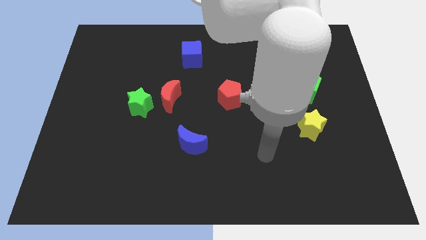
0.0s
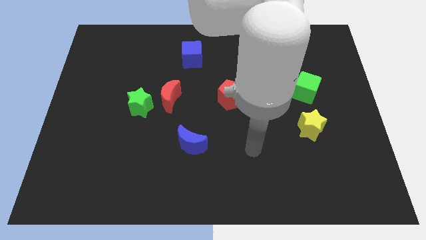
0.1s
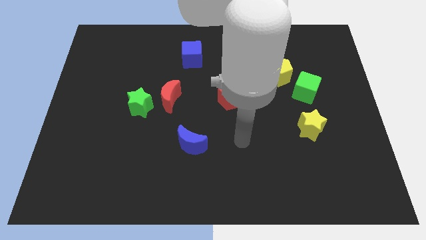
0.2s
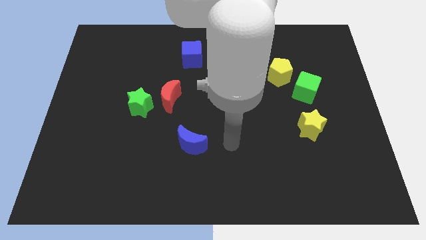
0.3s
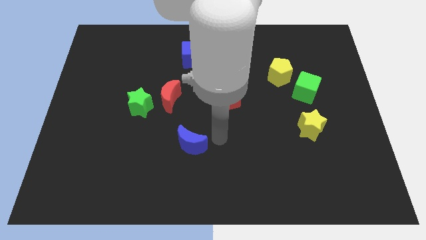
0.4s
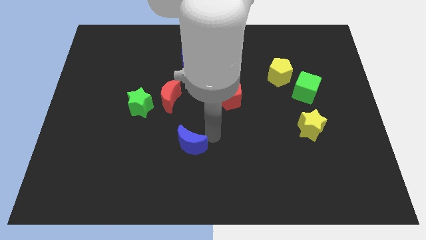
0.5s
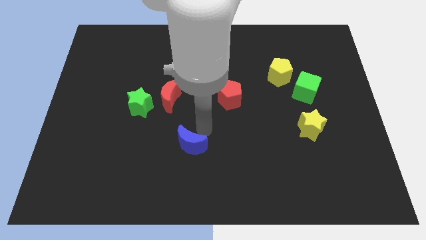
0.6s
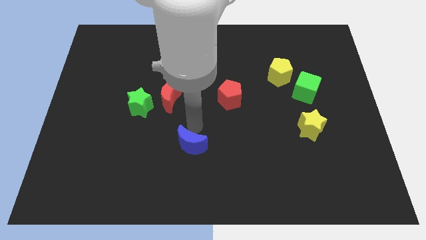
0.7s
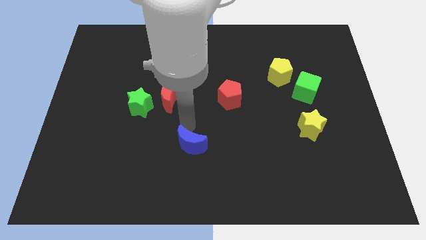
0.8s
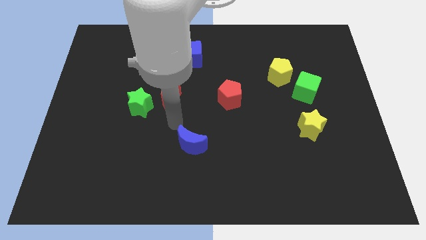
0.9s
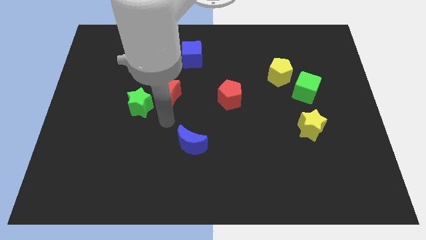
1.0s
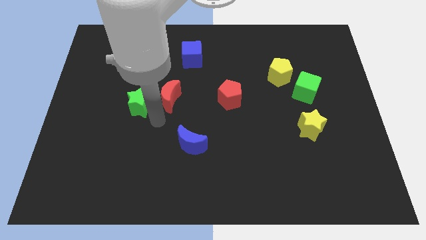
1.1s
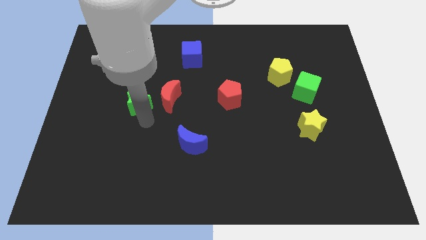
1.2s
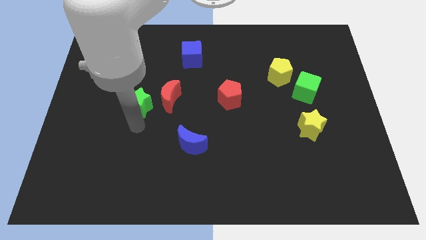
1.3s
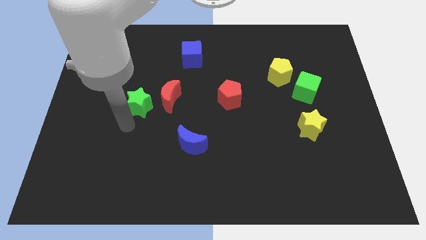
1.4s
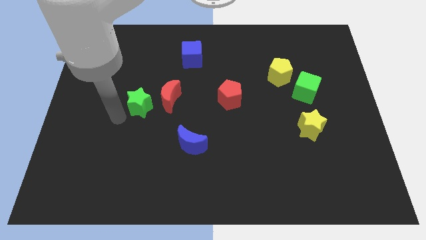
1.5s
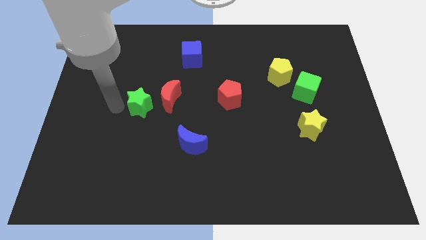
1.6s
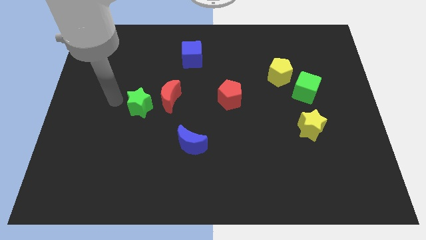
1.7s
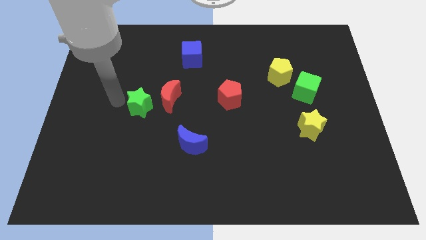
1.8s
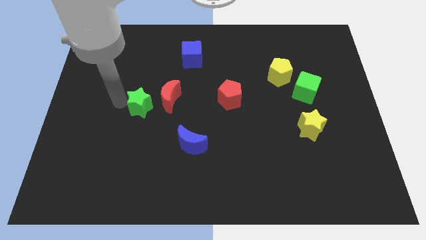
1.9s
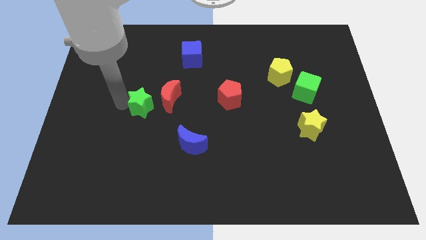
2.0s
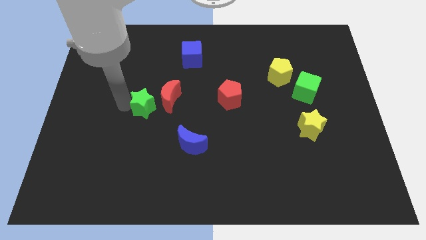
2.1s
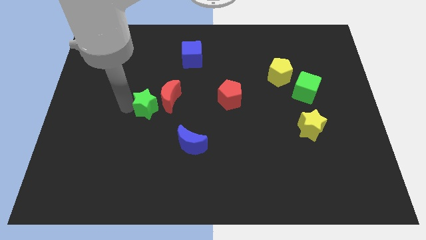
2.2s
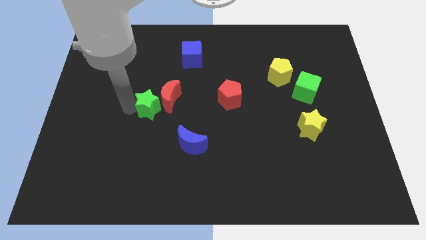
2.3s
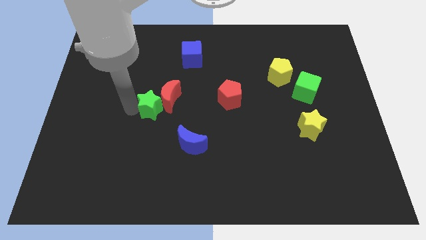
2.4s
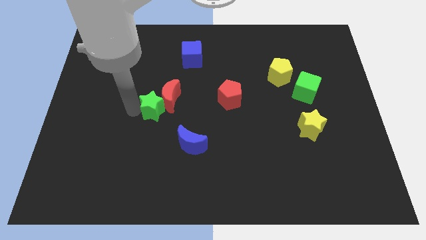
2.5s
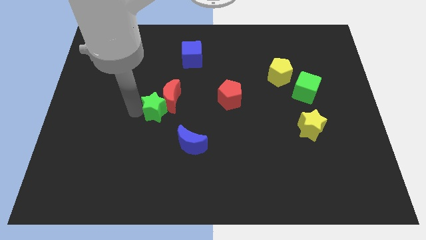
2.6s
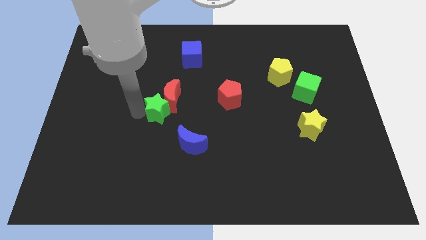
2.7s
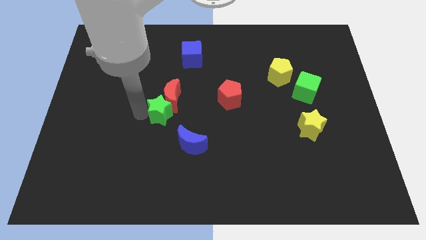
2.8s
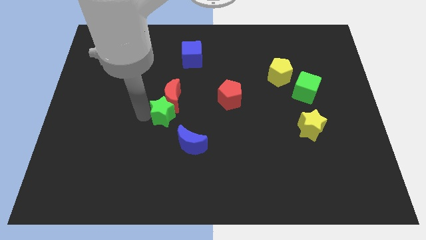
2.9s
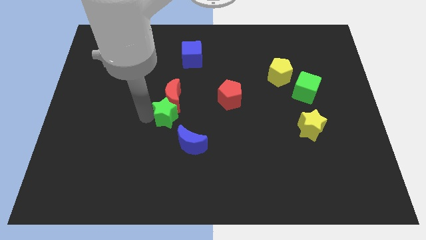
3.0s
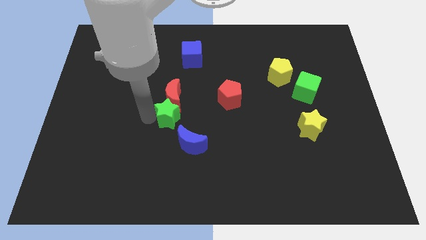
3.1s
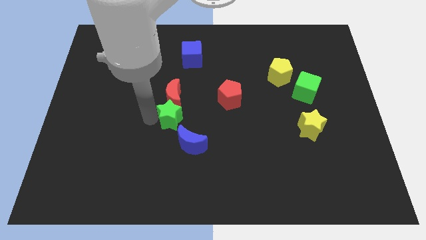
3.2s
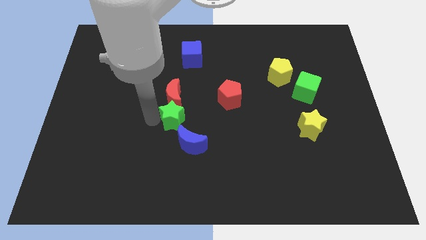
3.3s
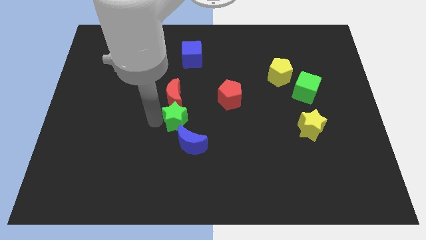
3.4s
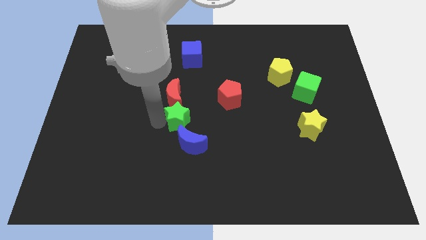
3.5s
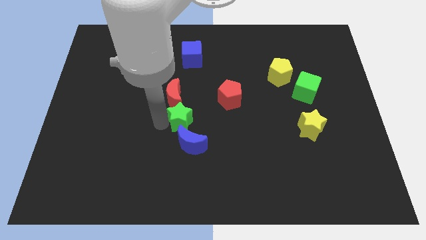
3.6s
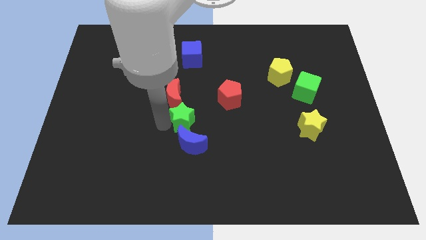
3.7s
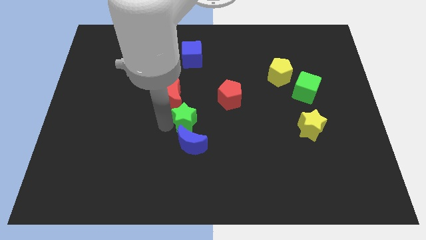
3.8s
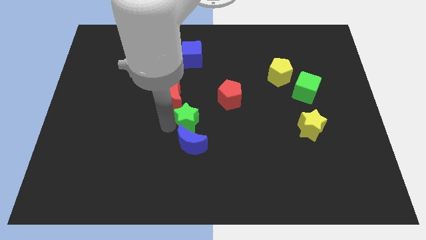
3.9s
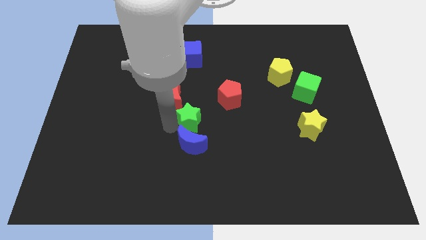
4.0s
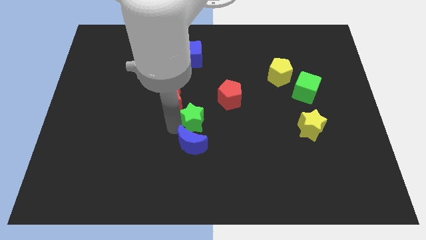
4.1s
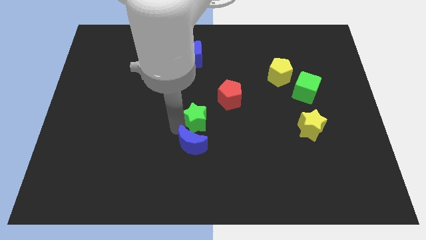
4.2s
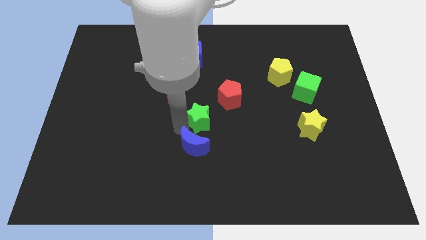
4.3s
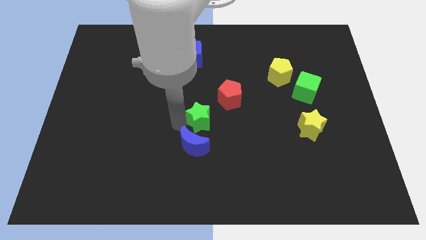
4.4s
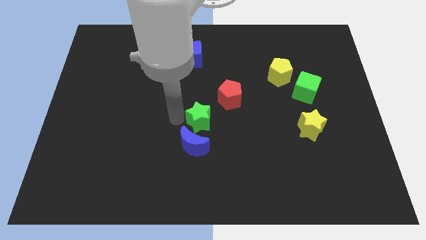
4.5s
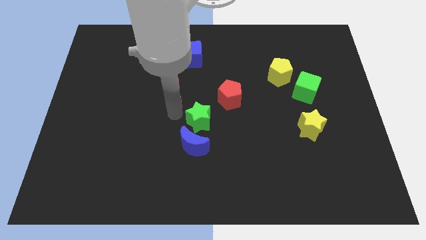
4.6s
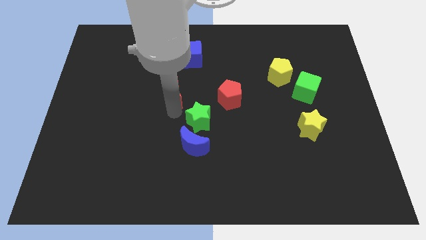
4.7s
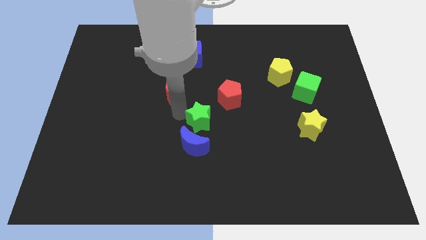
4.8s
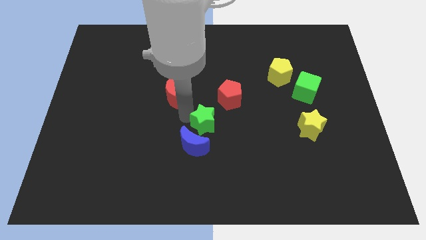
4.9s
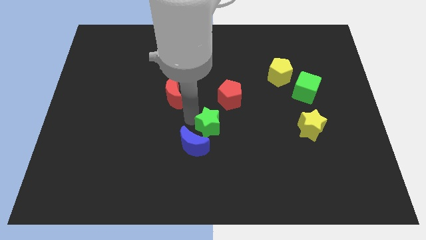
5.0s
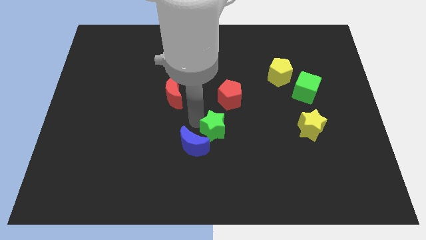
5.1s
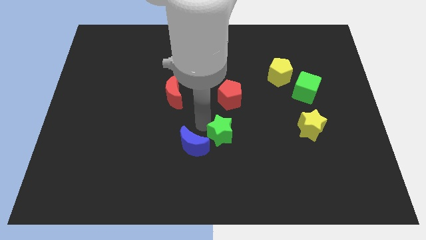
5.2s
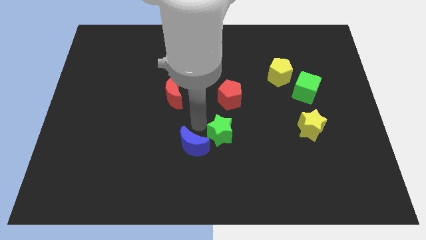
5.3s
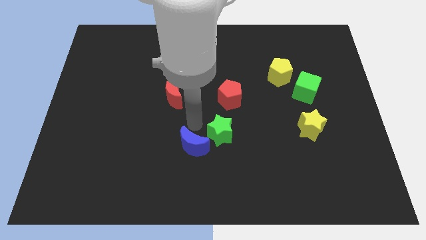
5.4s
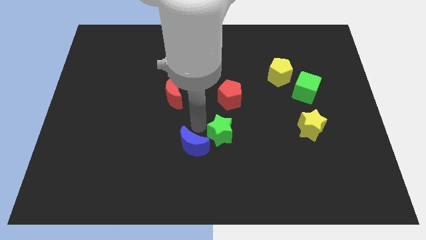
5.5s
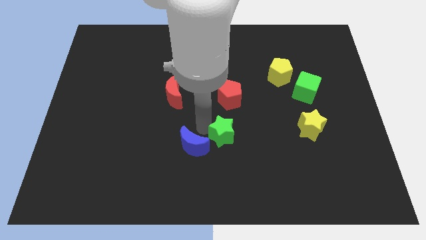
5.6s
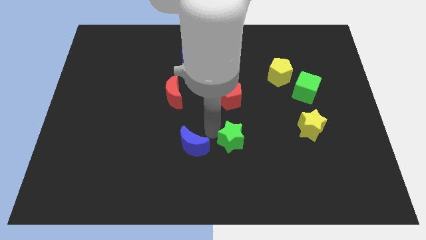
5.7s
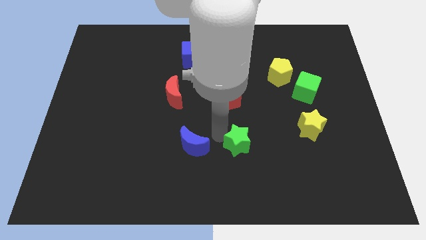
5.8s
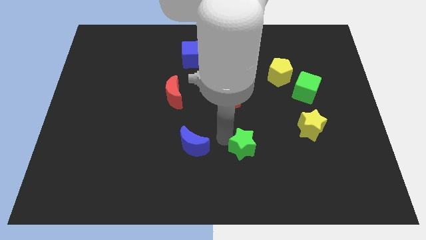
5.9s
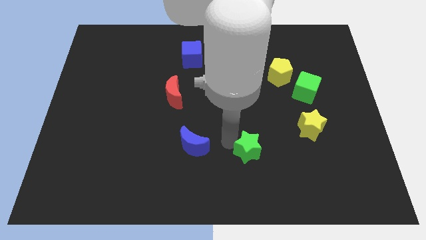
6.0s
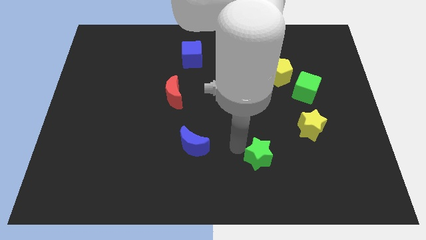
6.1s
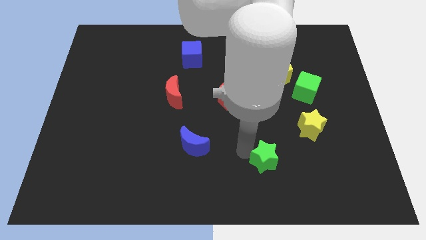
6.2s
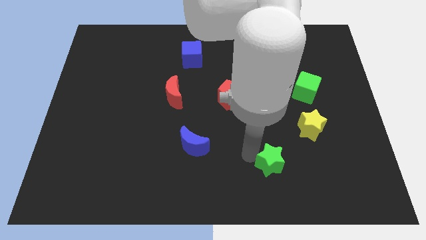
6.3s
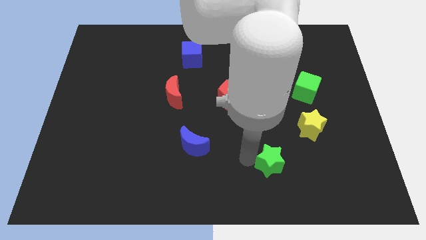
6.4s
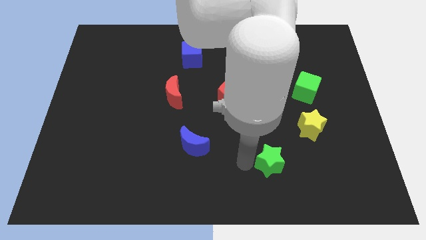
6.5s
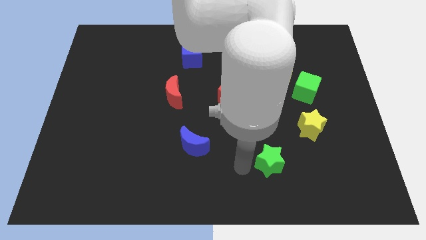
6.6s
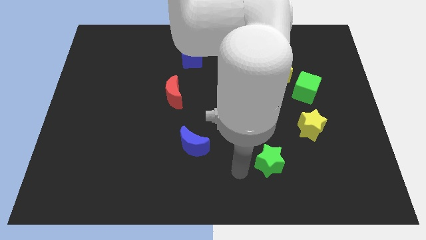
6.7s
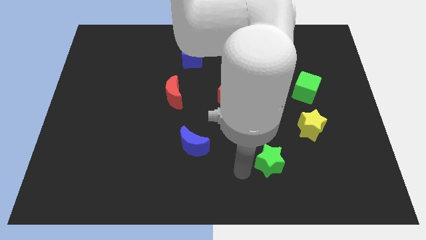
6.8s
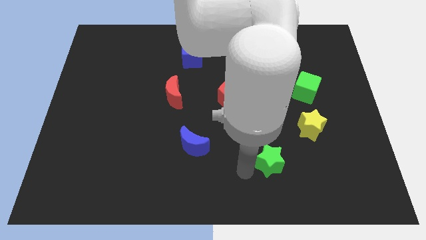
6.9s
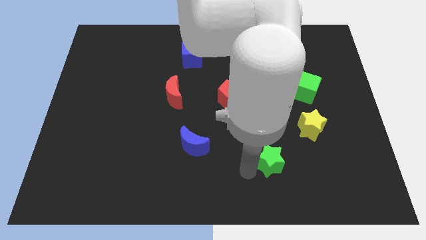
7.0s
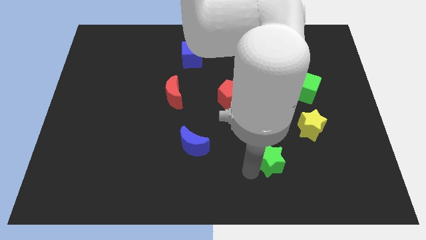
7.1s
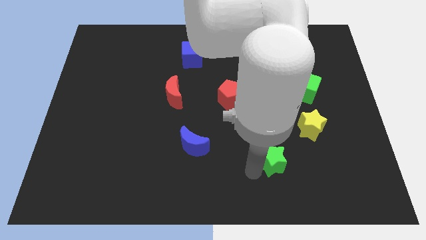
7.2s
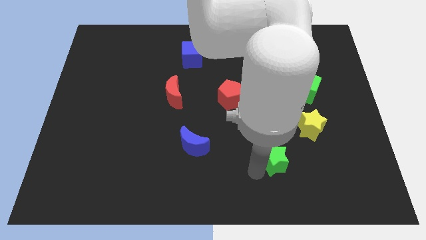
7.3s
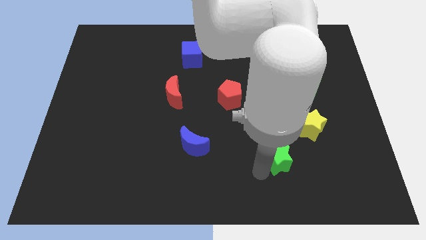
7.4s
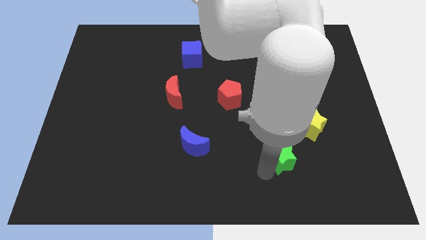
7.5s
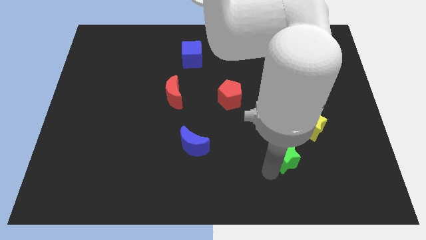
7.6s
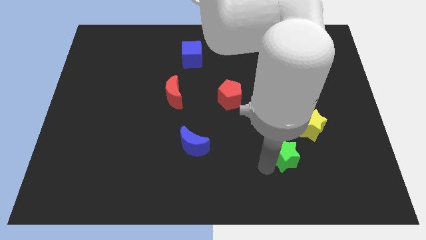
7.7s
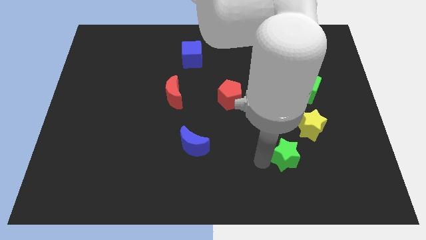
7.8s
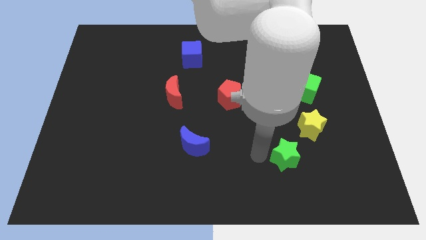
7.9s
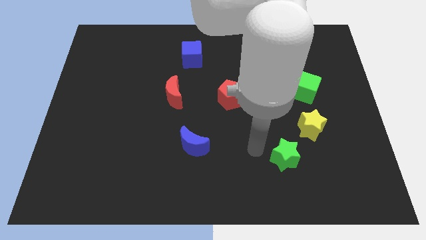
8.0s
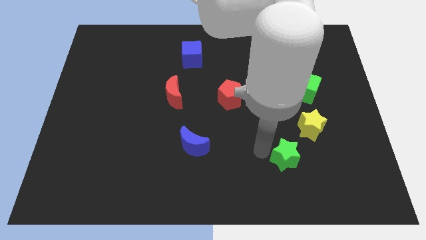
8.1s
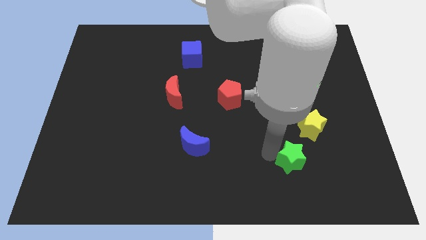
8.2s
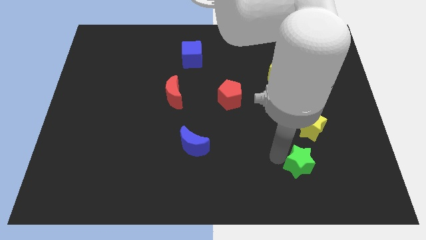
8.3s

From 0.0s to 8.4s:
push the green star to the bottom side of the yellow star
